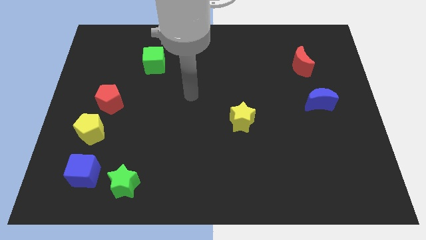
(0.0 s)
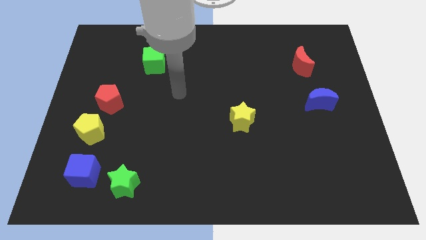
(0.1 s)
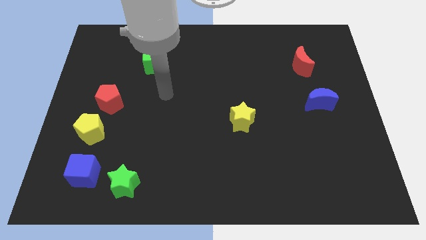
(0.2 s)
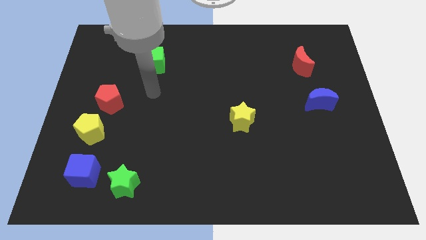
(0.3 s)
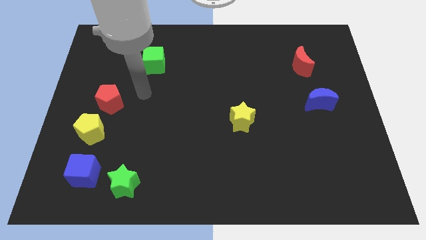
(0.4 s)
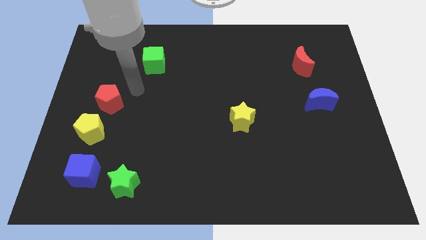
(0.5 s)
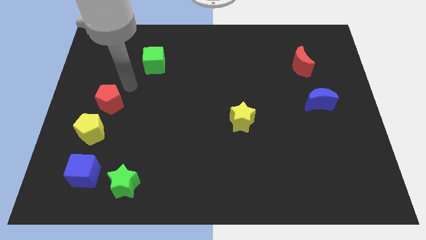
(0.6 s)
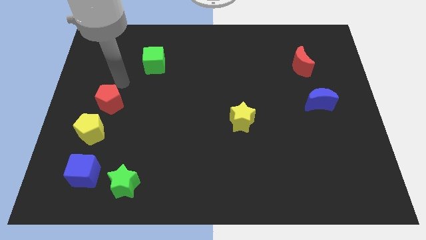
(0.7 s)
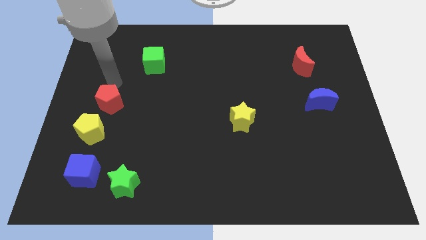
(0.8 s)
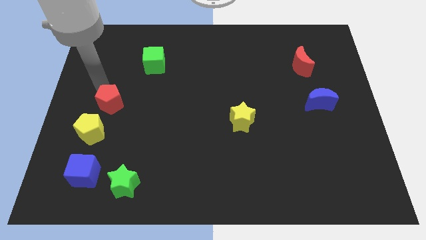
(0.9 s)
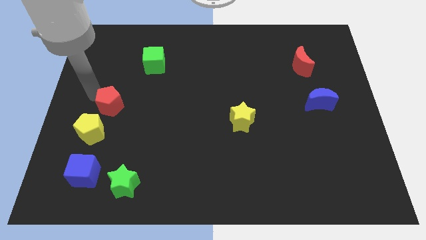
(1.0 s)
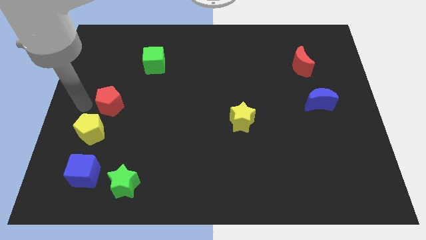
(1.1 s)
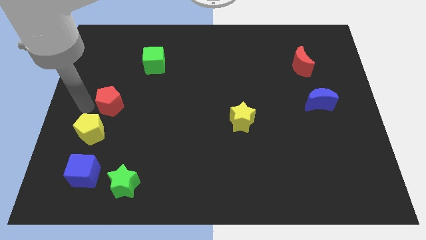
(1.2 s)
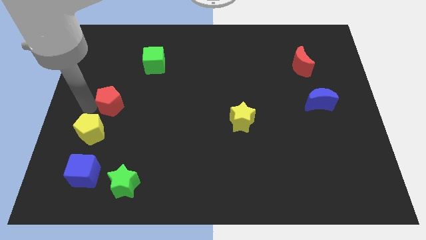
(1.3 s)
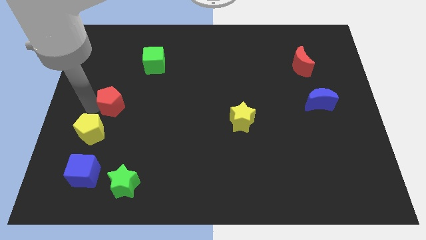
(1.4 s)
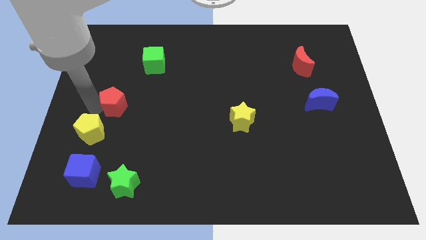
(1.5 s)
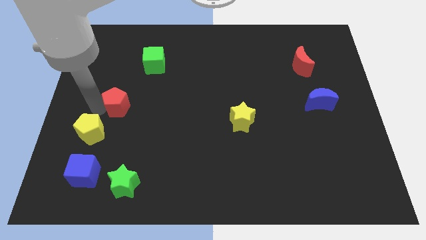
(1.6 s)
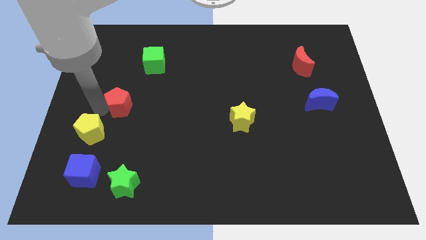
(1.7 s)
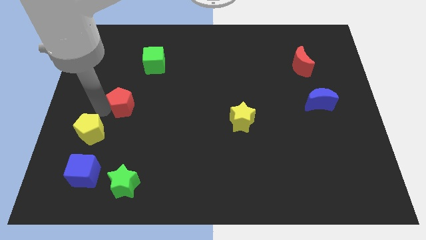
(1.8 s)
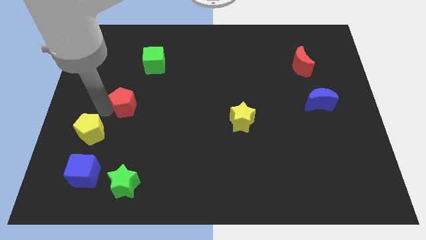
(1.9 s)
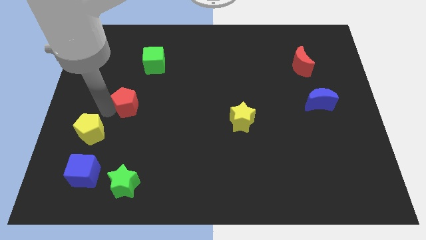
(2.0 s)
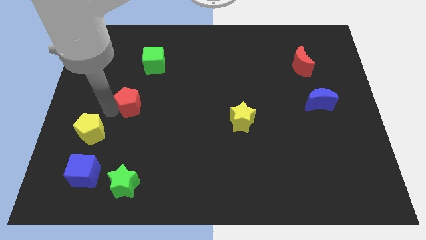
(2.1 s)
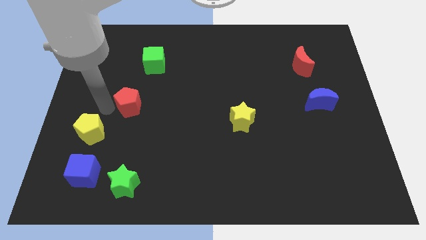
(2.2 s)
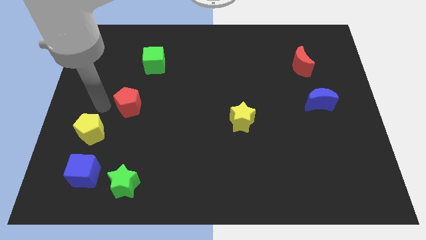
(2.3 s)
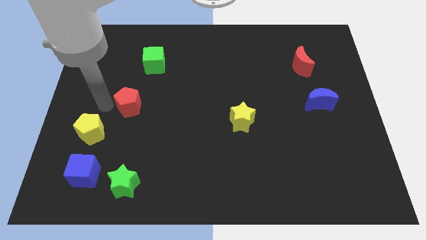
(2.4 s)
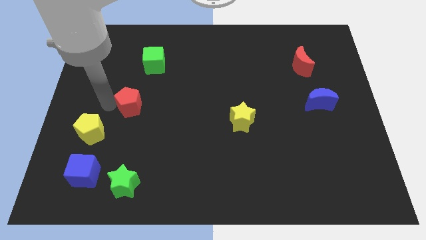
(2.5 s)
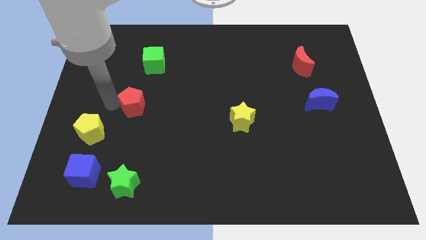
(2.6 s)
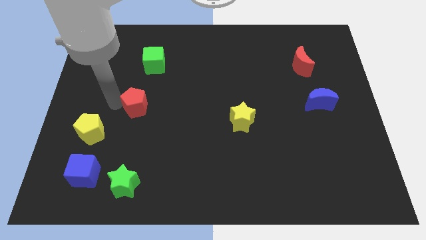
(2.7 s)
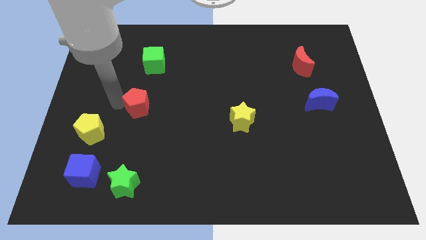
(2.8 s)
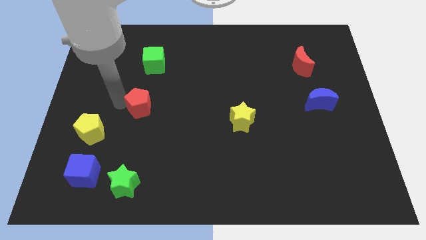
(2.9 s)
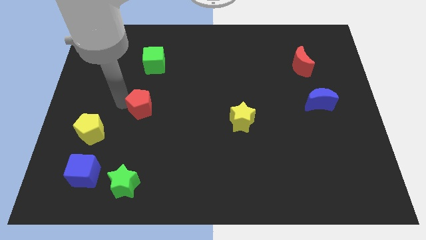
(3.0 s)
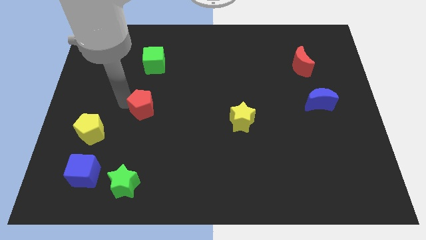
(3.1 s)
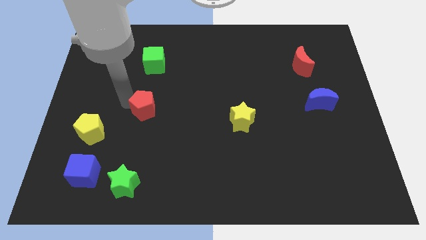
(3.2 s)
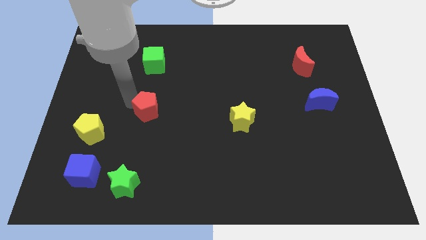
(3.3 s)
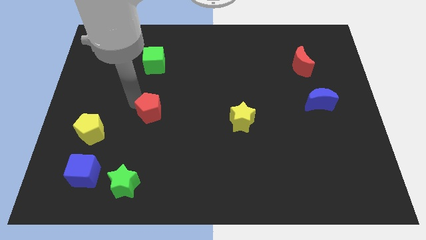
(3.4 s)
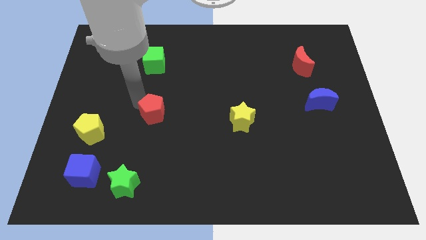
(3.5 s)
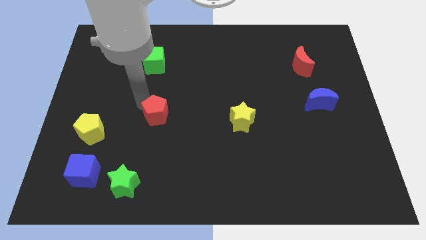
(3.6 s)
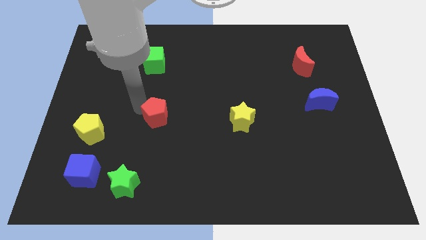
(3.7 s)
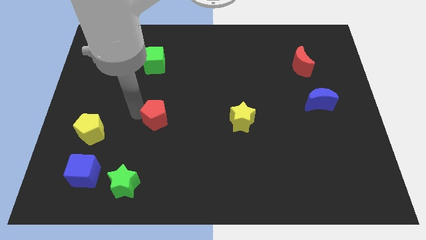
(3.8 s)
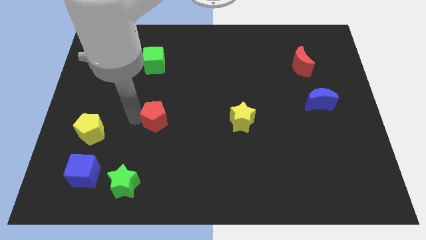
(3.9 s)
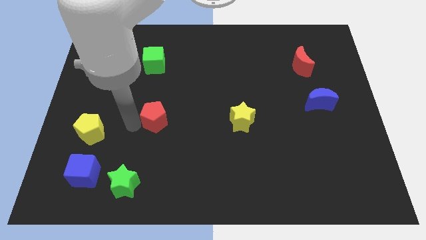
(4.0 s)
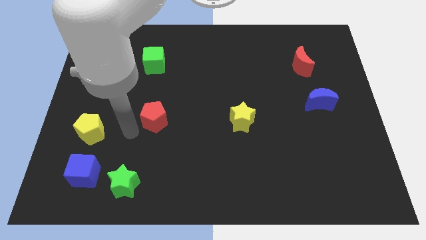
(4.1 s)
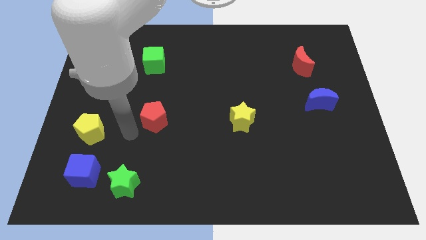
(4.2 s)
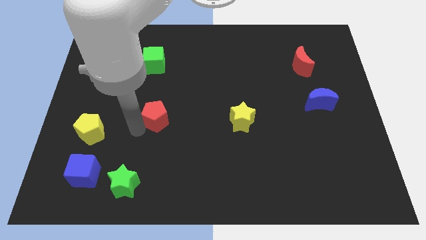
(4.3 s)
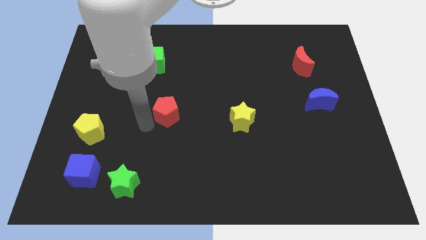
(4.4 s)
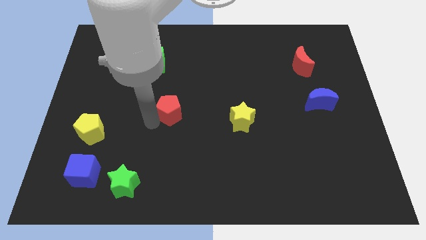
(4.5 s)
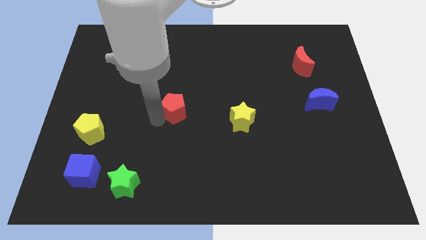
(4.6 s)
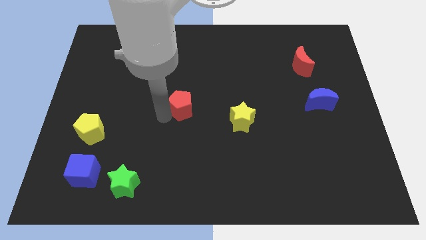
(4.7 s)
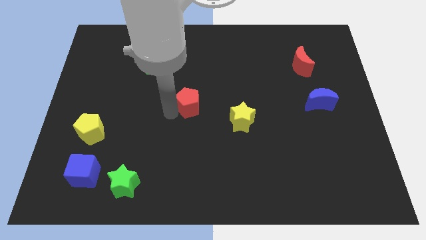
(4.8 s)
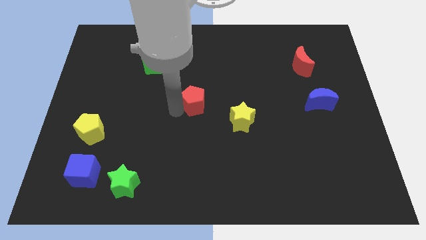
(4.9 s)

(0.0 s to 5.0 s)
slide the red pentagon to the right

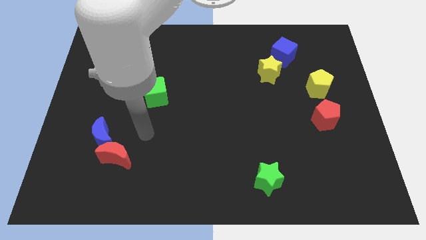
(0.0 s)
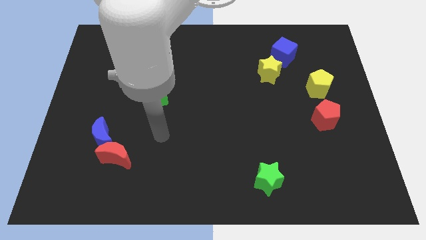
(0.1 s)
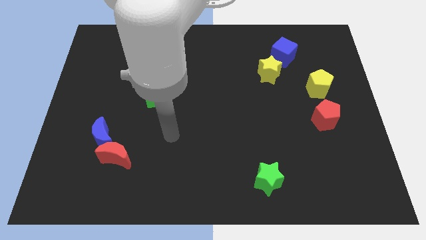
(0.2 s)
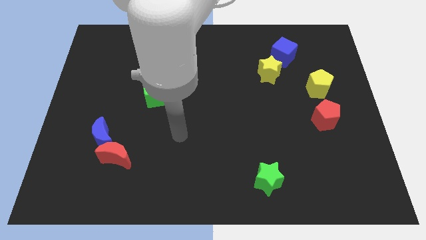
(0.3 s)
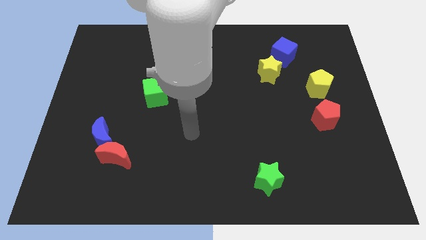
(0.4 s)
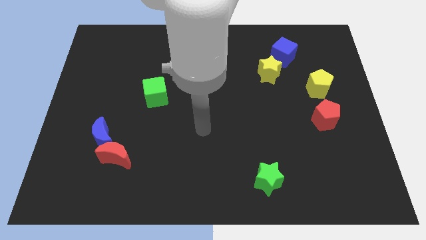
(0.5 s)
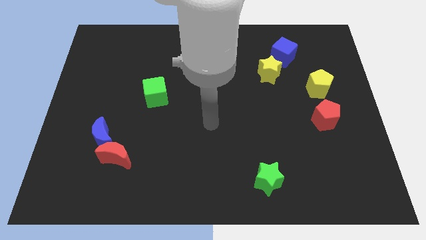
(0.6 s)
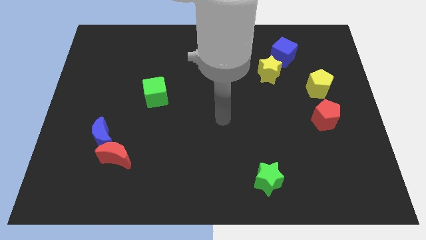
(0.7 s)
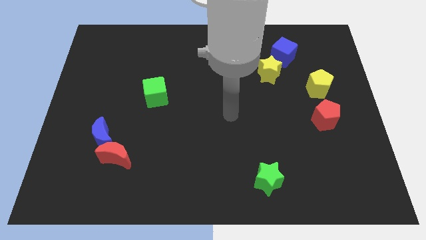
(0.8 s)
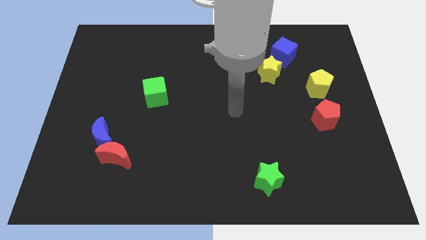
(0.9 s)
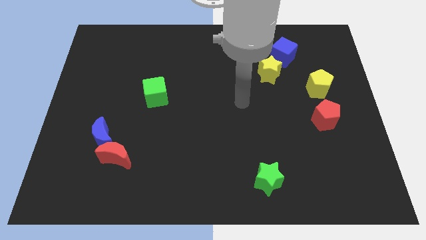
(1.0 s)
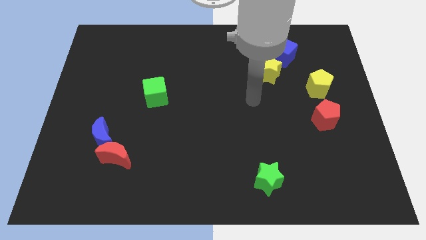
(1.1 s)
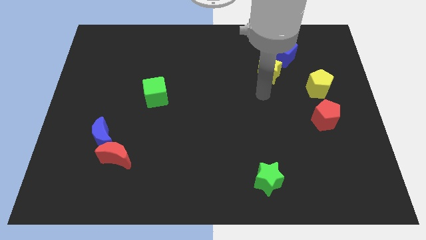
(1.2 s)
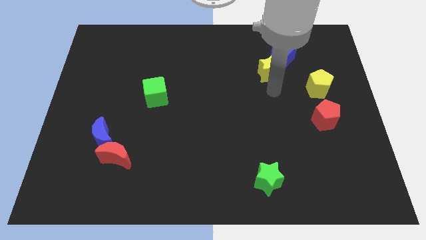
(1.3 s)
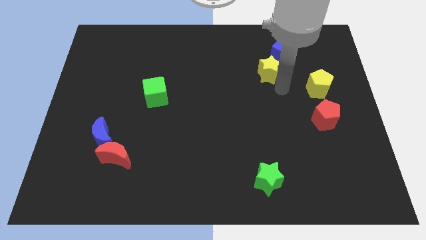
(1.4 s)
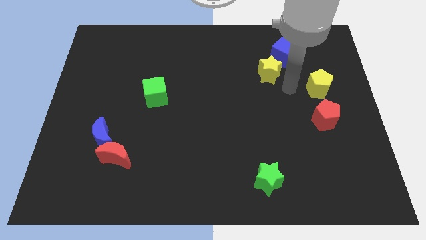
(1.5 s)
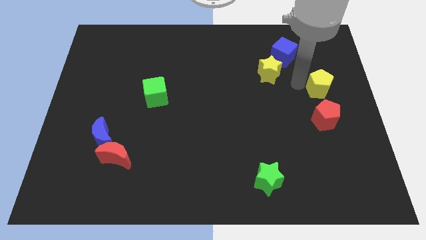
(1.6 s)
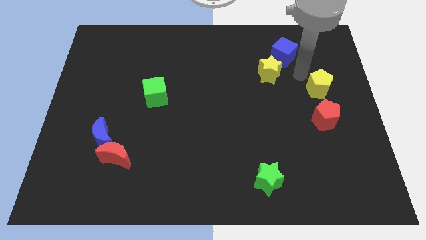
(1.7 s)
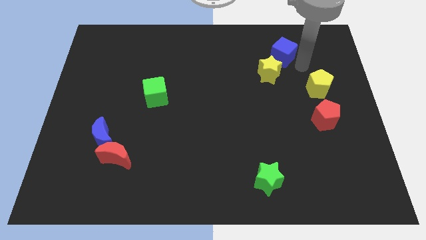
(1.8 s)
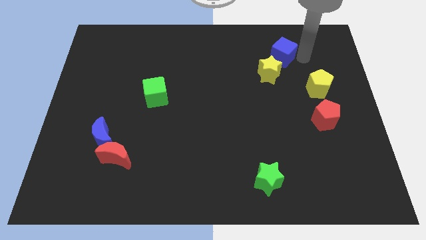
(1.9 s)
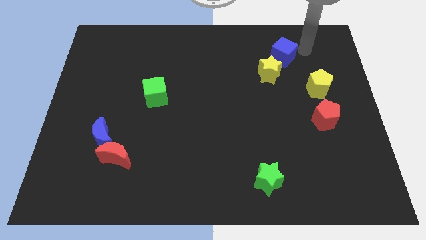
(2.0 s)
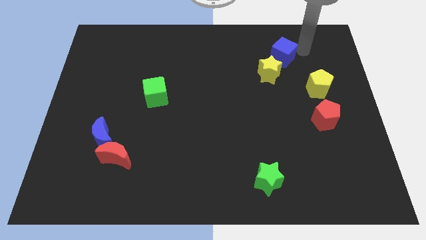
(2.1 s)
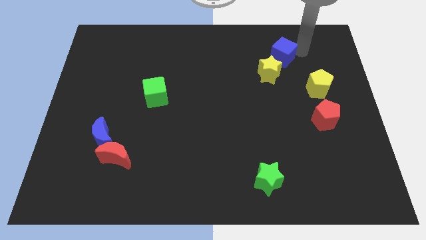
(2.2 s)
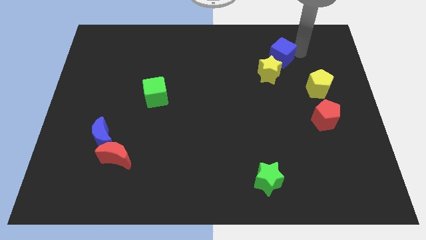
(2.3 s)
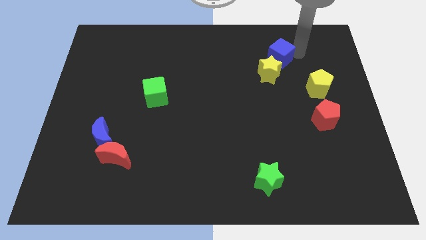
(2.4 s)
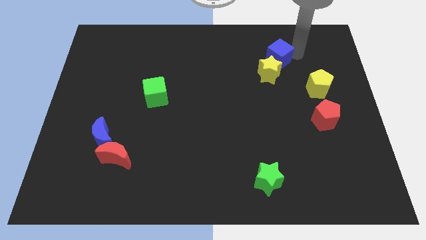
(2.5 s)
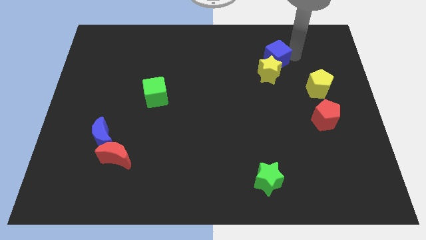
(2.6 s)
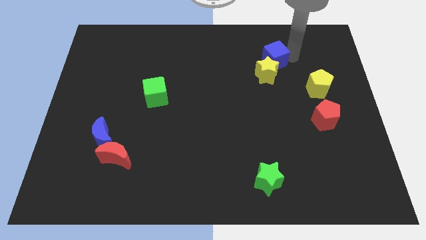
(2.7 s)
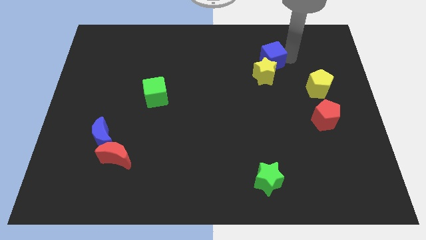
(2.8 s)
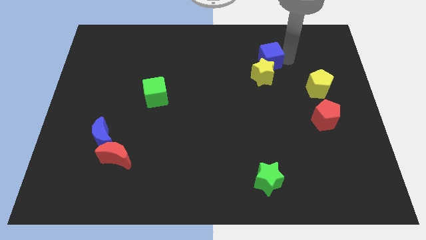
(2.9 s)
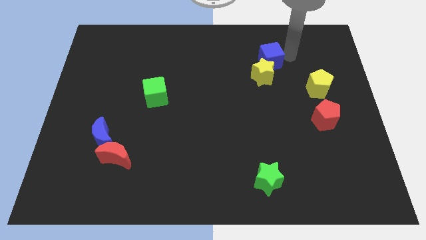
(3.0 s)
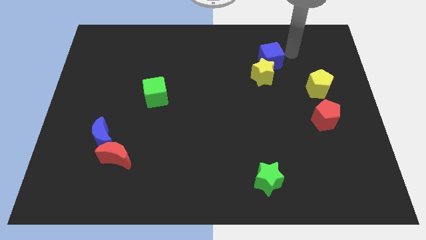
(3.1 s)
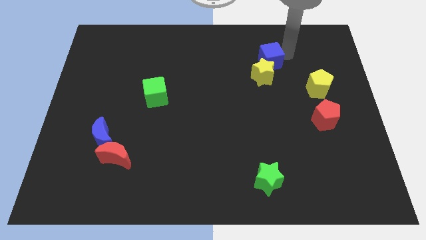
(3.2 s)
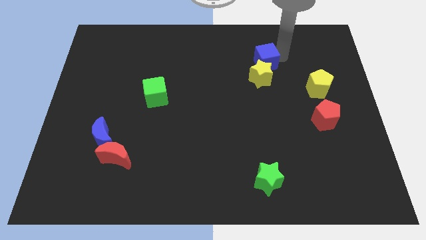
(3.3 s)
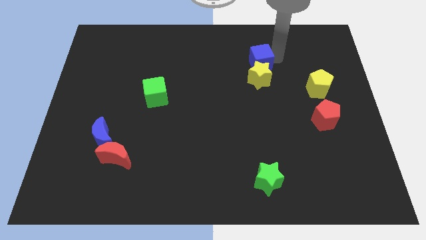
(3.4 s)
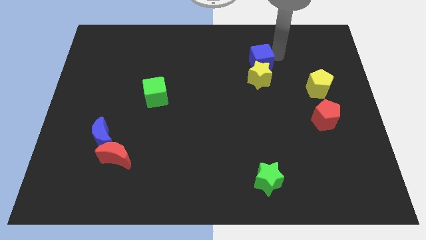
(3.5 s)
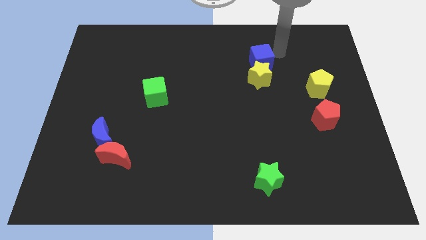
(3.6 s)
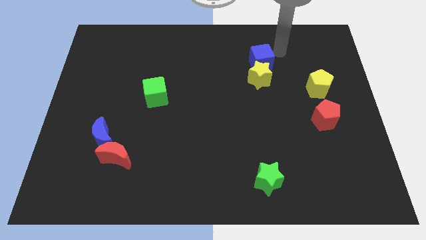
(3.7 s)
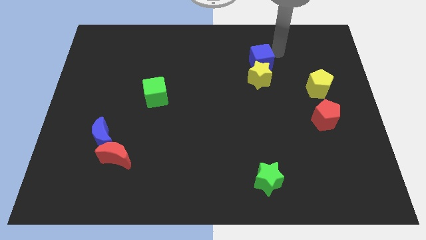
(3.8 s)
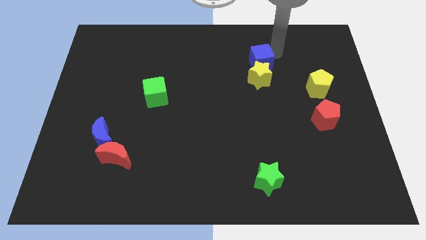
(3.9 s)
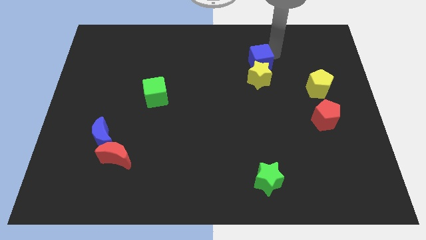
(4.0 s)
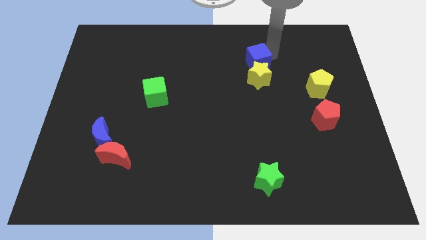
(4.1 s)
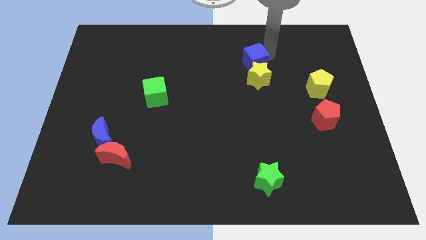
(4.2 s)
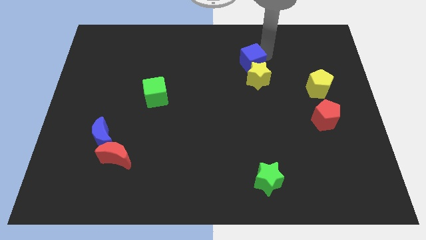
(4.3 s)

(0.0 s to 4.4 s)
slightly move the blue cube diagonally down and to the left
